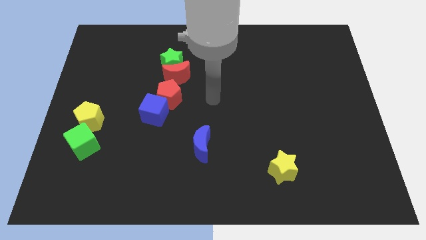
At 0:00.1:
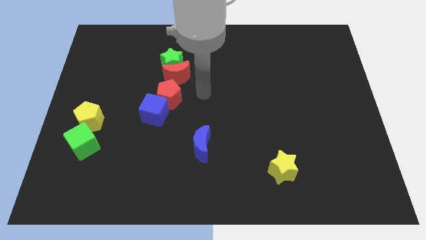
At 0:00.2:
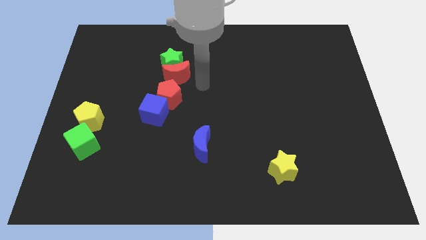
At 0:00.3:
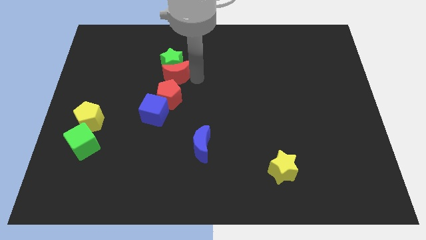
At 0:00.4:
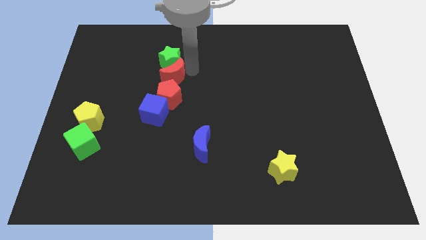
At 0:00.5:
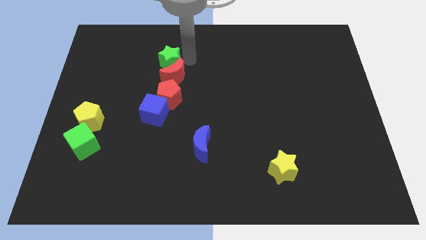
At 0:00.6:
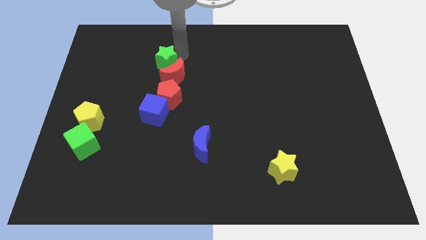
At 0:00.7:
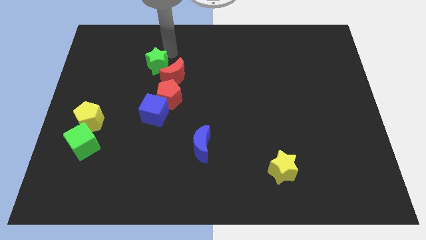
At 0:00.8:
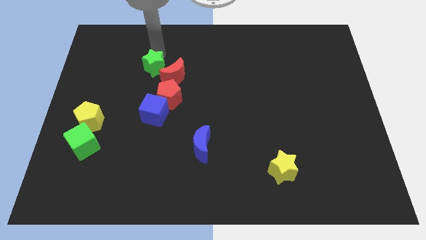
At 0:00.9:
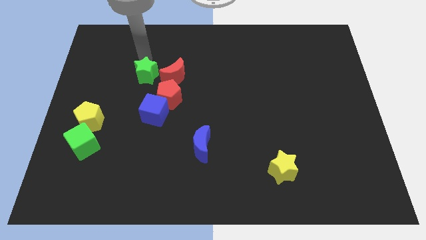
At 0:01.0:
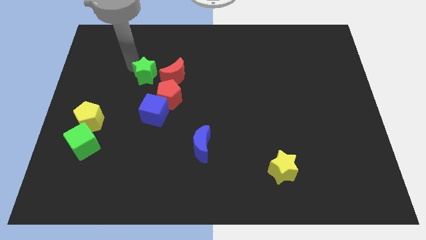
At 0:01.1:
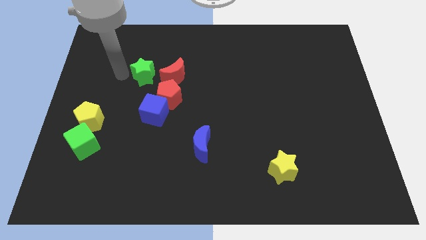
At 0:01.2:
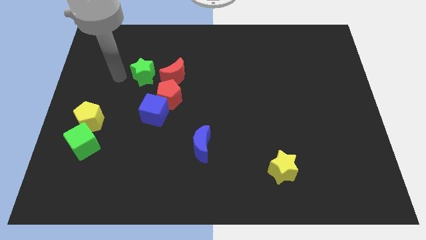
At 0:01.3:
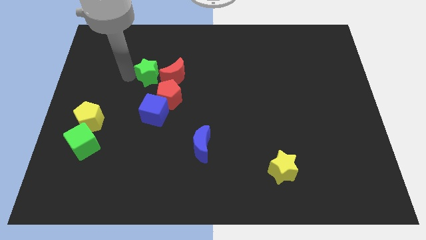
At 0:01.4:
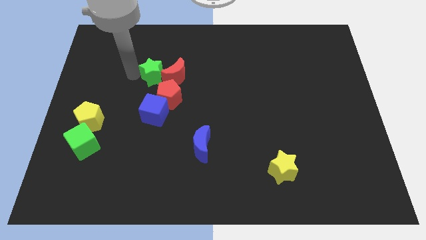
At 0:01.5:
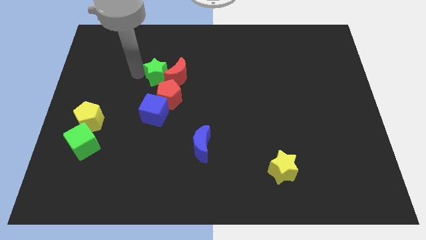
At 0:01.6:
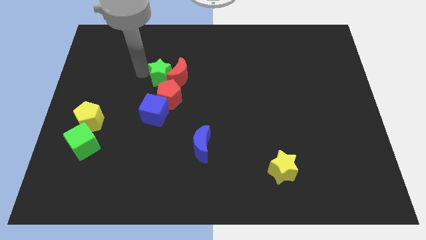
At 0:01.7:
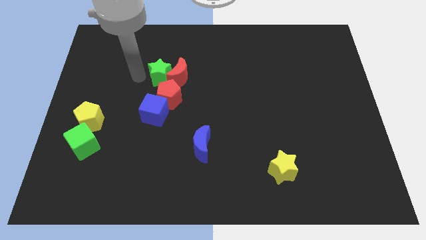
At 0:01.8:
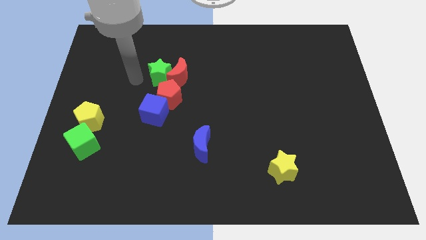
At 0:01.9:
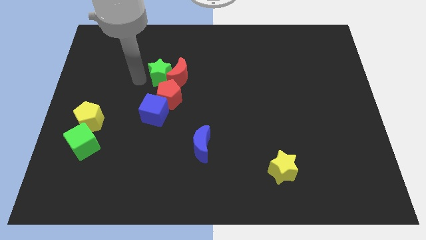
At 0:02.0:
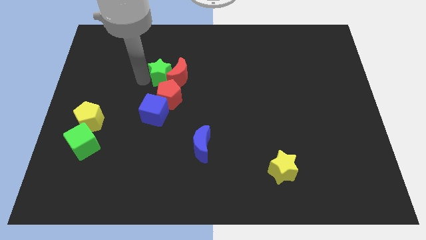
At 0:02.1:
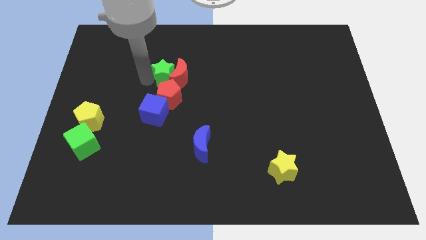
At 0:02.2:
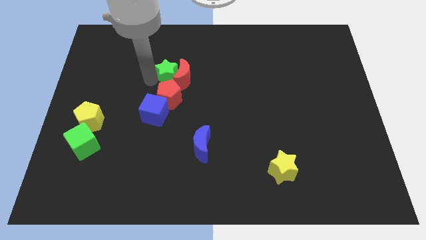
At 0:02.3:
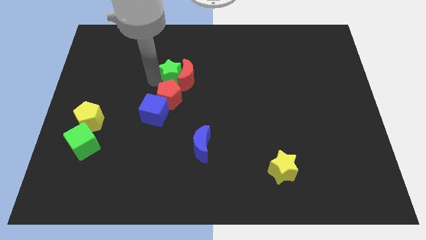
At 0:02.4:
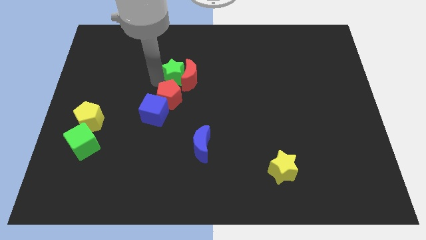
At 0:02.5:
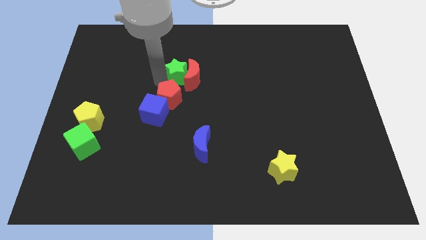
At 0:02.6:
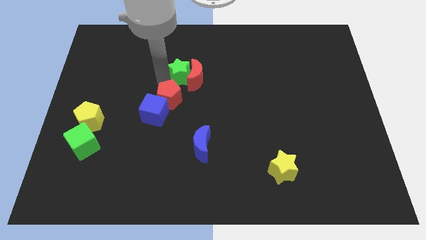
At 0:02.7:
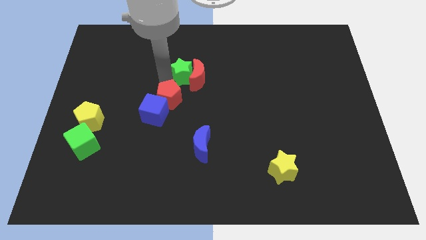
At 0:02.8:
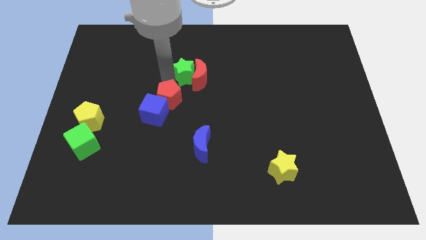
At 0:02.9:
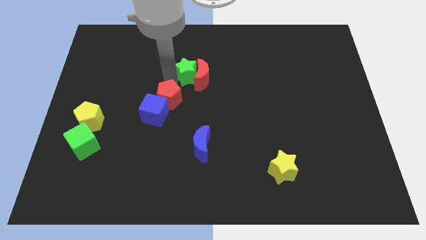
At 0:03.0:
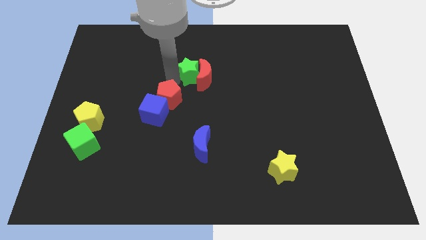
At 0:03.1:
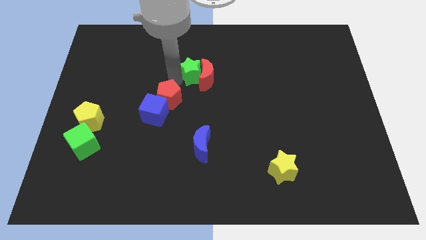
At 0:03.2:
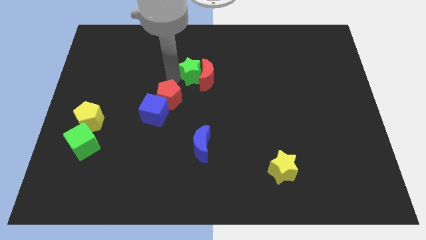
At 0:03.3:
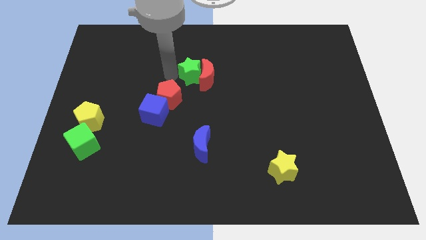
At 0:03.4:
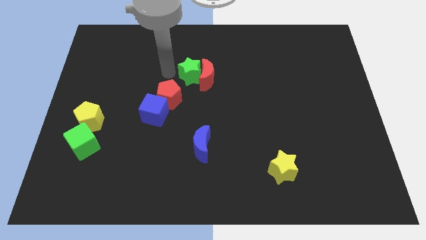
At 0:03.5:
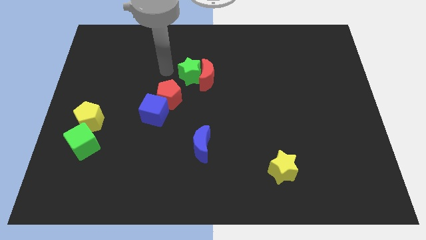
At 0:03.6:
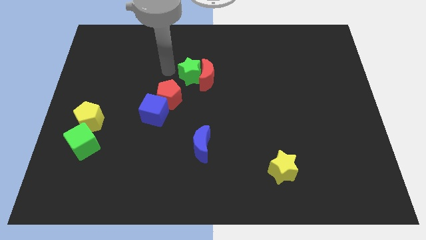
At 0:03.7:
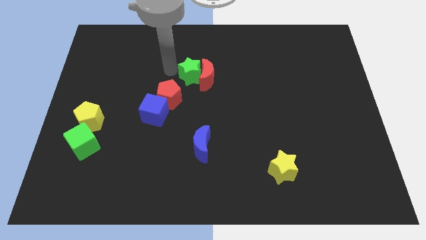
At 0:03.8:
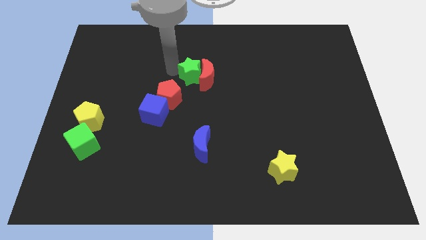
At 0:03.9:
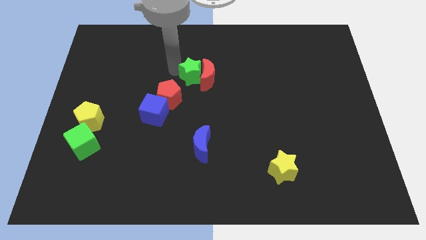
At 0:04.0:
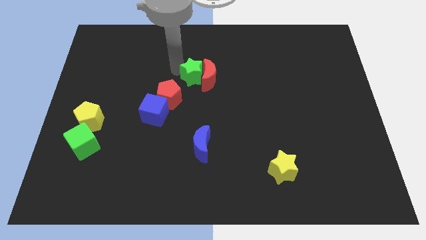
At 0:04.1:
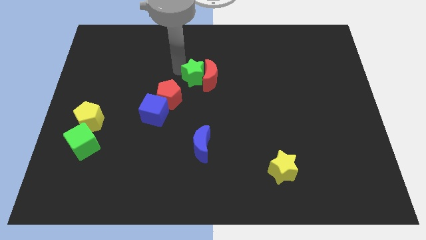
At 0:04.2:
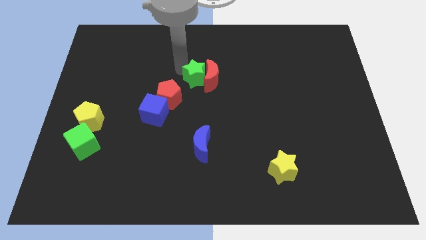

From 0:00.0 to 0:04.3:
push the green star a bit downwards and to the right

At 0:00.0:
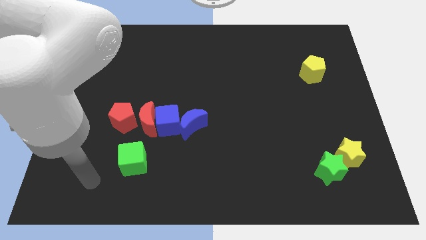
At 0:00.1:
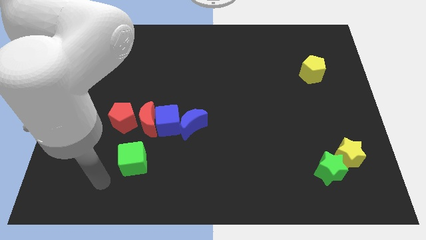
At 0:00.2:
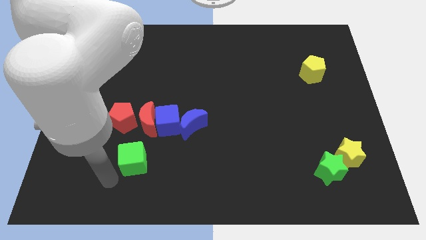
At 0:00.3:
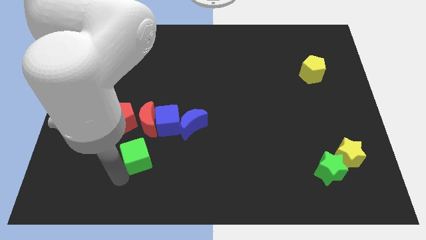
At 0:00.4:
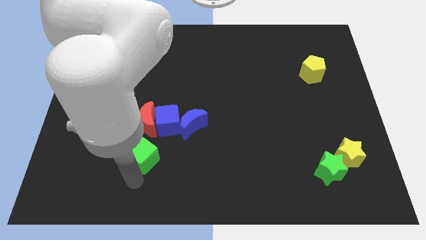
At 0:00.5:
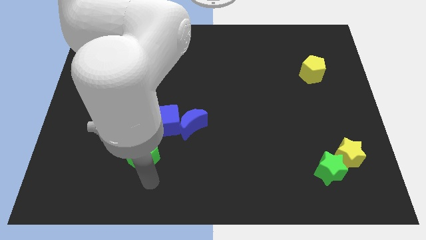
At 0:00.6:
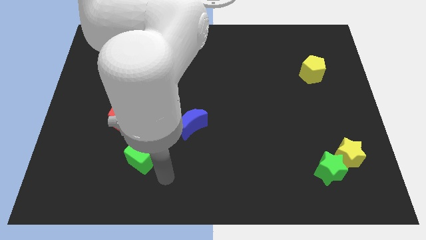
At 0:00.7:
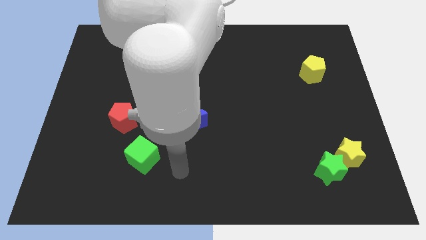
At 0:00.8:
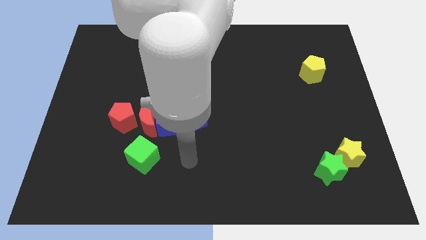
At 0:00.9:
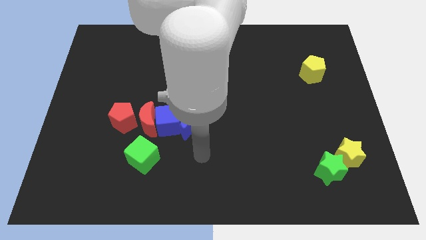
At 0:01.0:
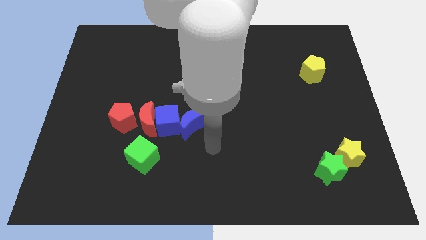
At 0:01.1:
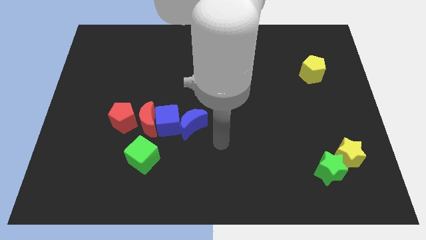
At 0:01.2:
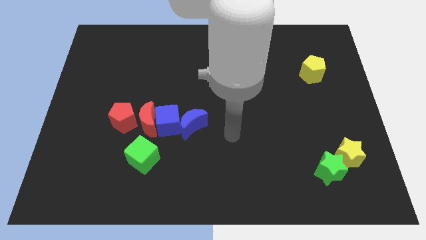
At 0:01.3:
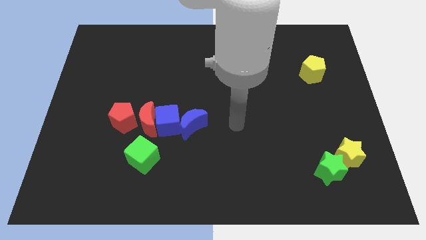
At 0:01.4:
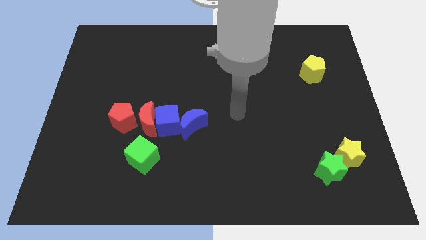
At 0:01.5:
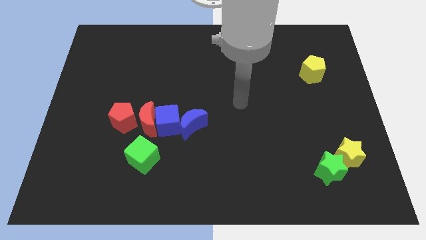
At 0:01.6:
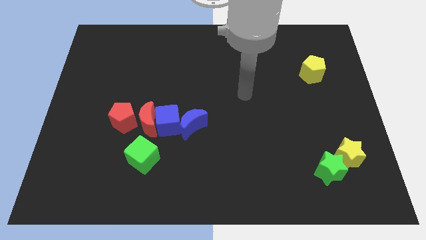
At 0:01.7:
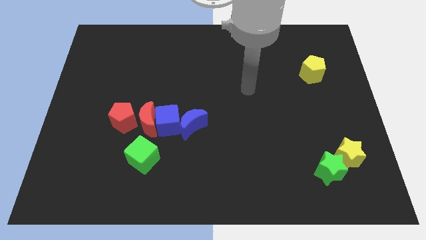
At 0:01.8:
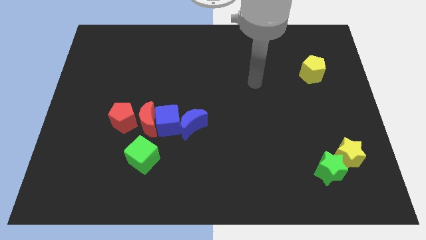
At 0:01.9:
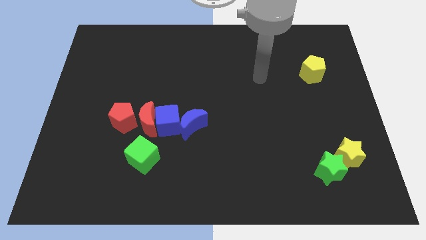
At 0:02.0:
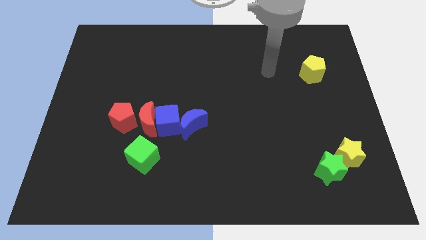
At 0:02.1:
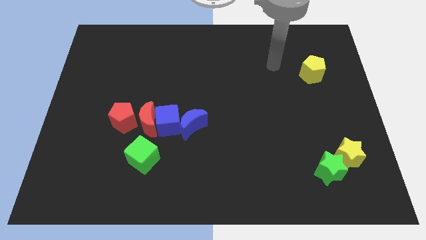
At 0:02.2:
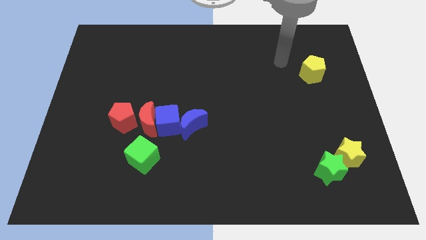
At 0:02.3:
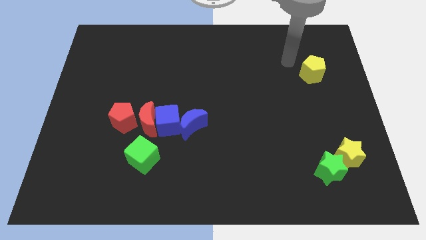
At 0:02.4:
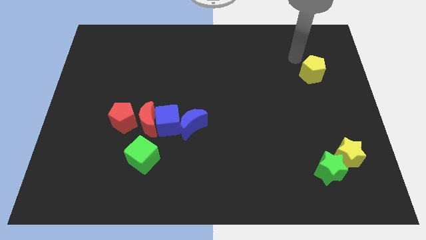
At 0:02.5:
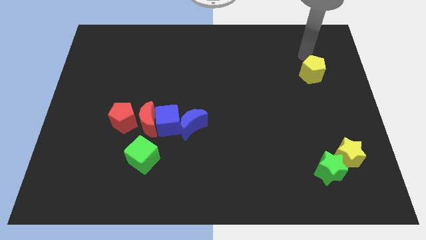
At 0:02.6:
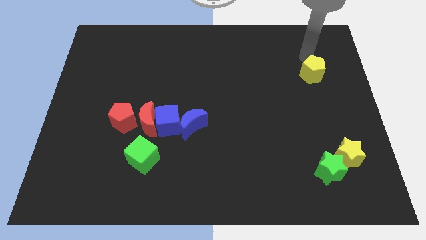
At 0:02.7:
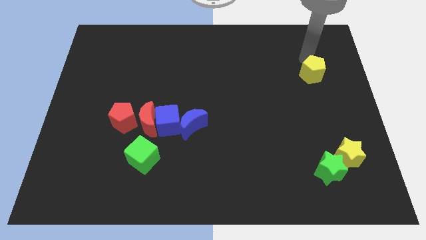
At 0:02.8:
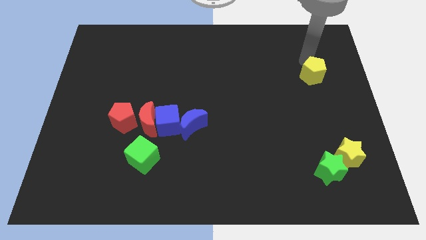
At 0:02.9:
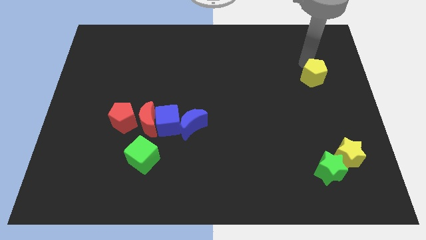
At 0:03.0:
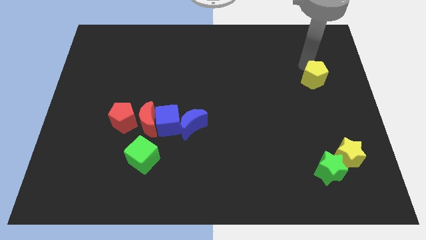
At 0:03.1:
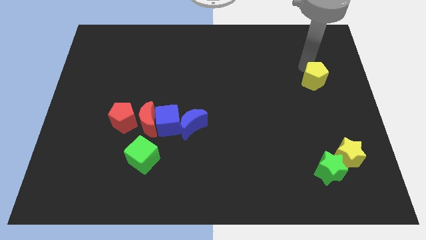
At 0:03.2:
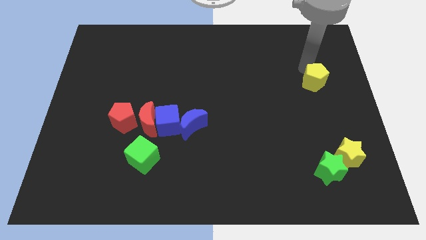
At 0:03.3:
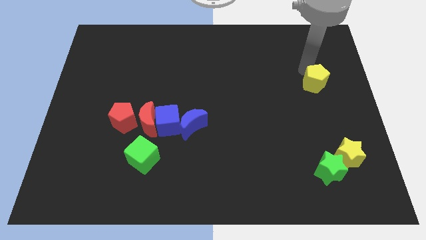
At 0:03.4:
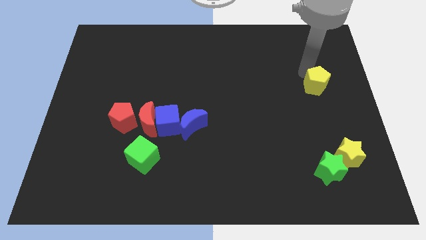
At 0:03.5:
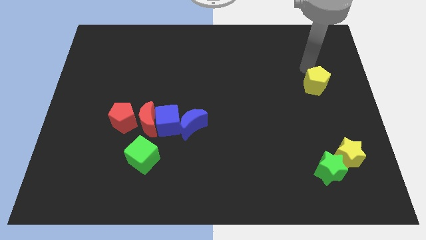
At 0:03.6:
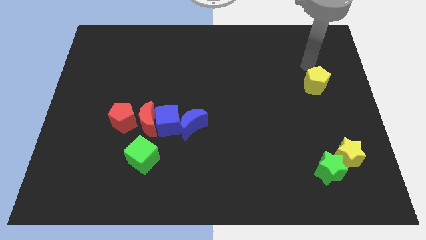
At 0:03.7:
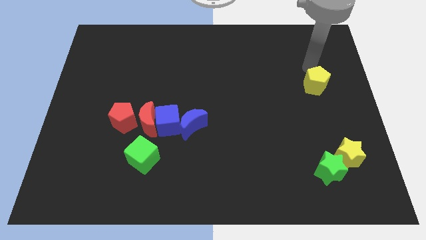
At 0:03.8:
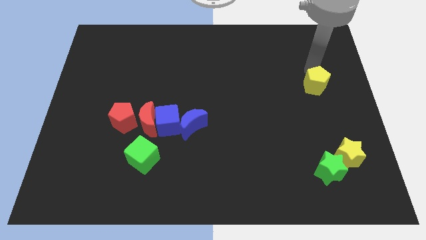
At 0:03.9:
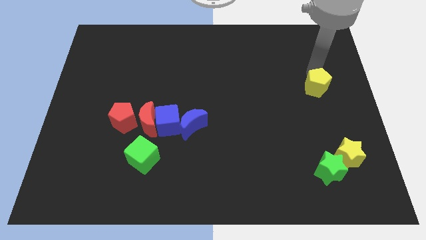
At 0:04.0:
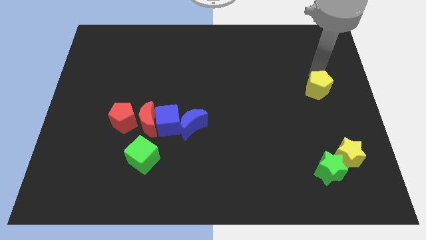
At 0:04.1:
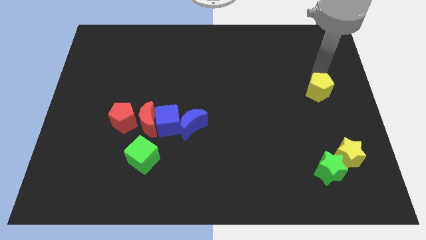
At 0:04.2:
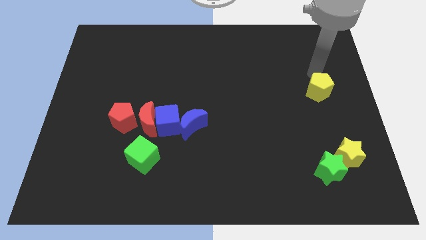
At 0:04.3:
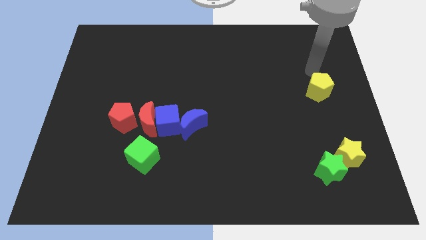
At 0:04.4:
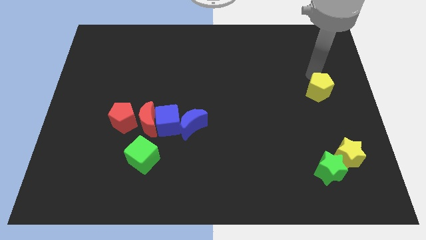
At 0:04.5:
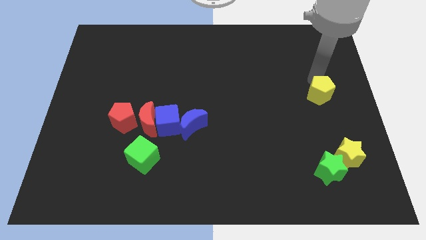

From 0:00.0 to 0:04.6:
slightly move the yellow pentagon down
